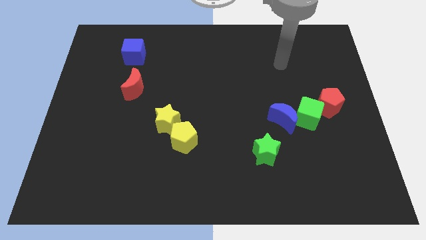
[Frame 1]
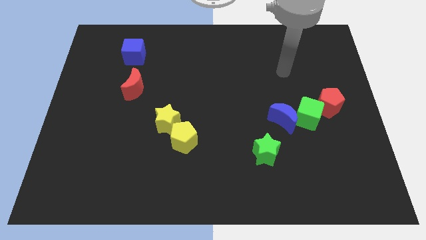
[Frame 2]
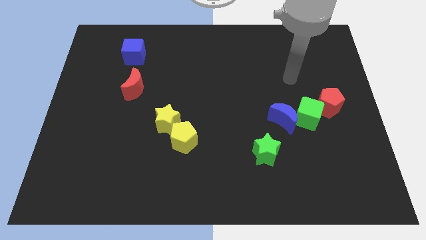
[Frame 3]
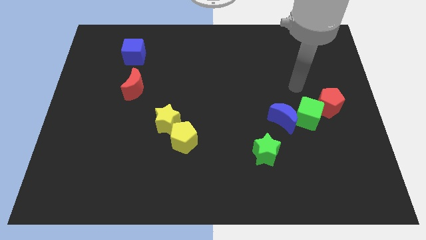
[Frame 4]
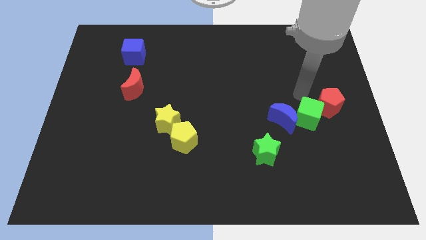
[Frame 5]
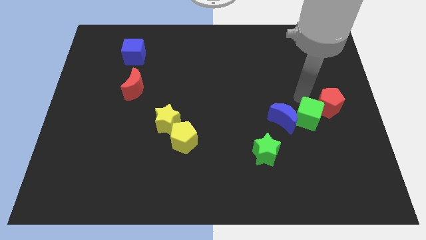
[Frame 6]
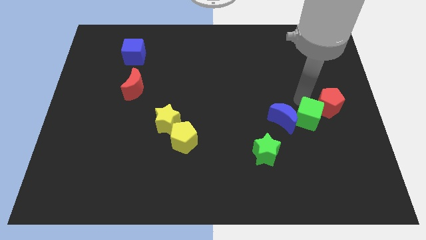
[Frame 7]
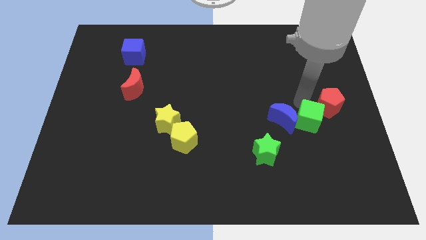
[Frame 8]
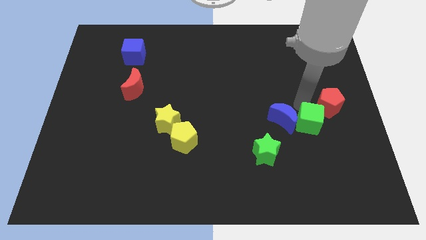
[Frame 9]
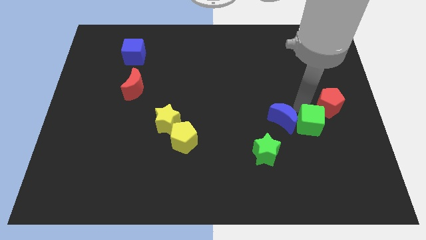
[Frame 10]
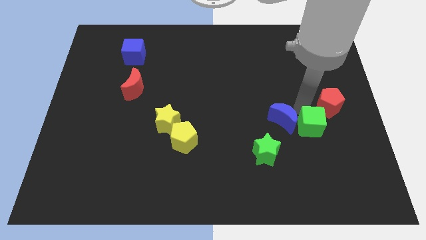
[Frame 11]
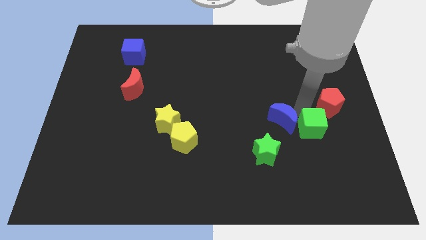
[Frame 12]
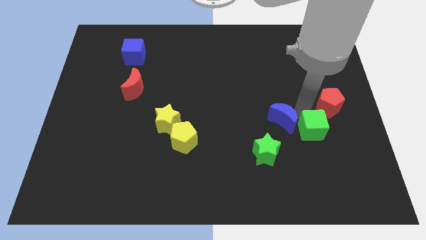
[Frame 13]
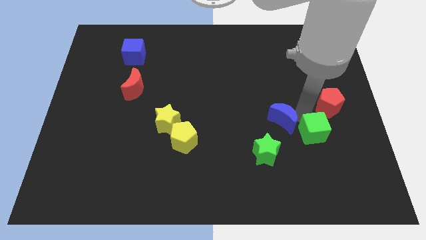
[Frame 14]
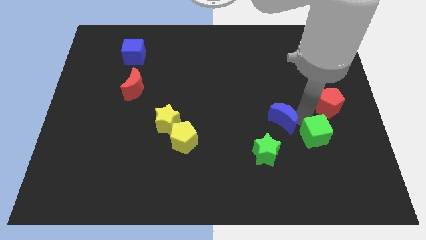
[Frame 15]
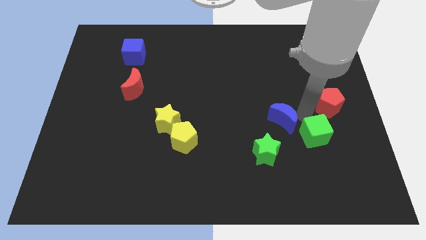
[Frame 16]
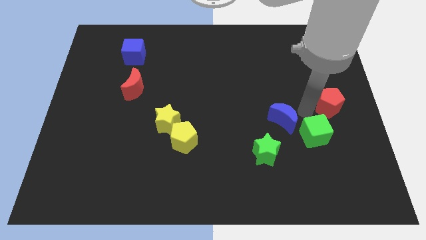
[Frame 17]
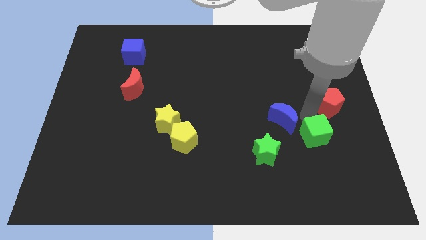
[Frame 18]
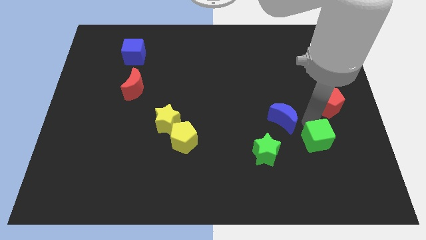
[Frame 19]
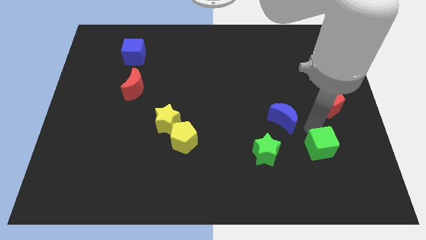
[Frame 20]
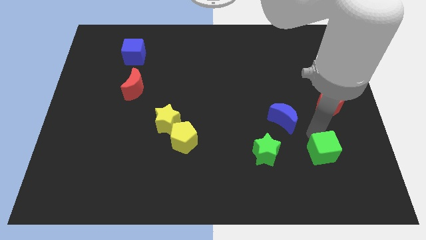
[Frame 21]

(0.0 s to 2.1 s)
separate the green cube from the blue moon and red pentagon

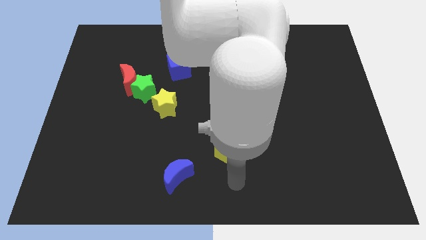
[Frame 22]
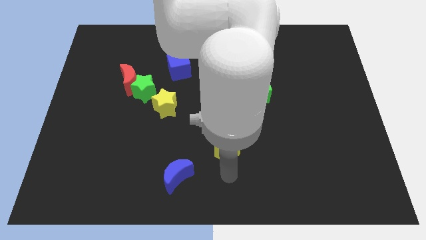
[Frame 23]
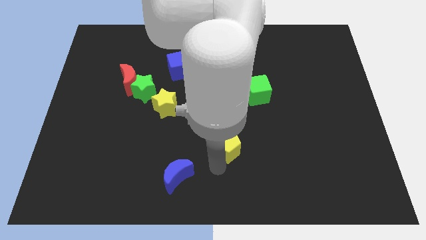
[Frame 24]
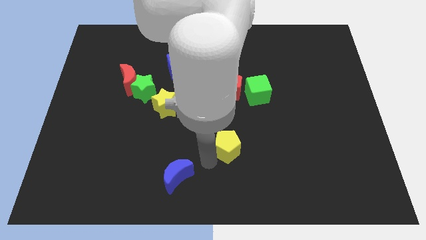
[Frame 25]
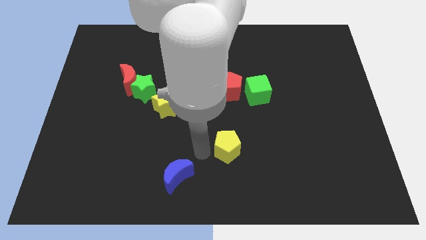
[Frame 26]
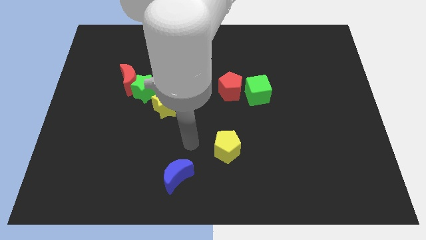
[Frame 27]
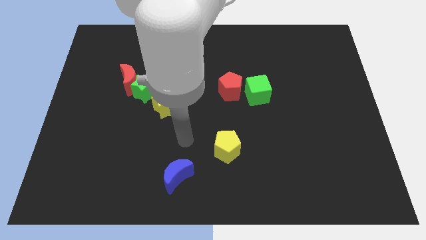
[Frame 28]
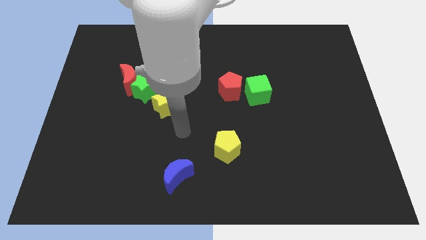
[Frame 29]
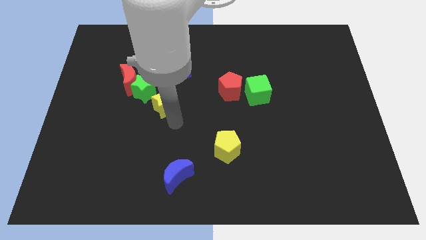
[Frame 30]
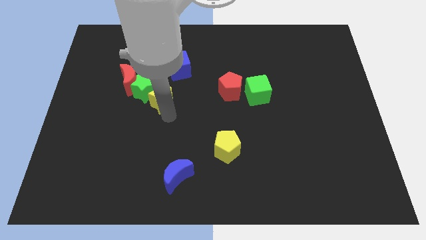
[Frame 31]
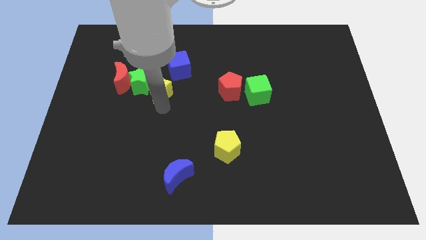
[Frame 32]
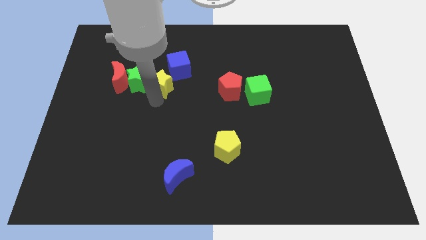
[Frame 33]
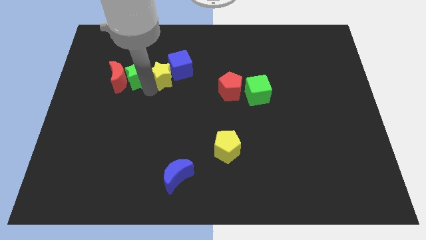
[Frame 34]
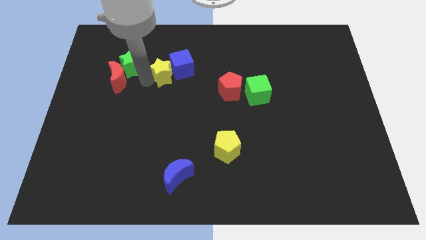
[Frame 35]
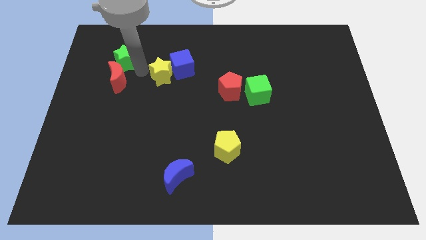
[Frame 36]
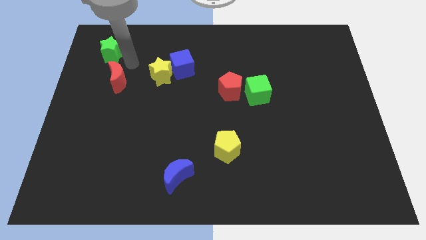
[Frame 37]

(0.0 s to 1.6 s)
separate the red moon from the green star

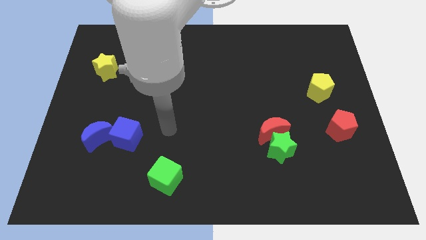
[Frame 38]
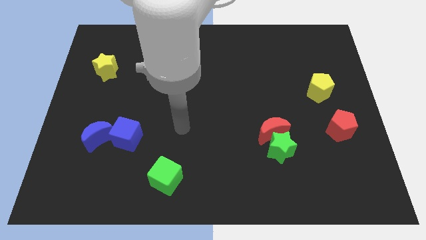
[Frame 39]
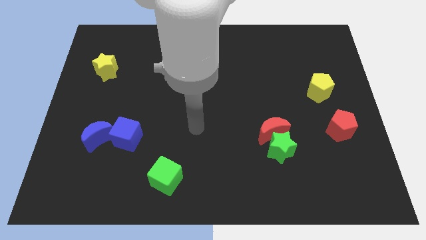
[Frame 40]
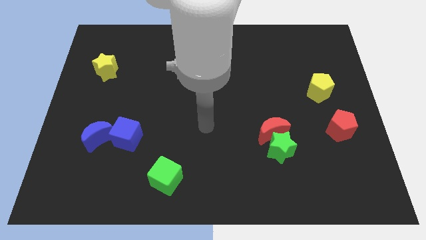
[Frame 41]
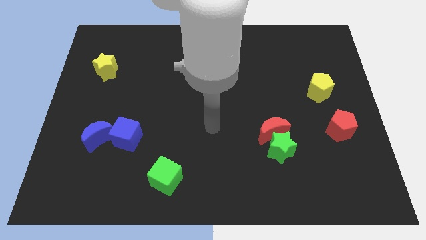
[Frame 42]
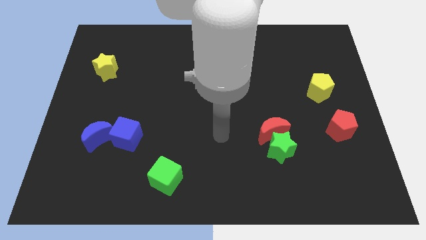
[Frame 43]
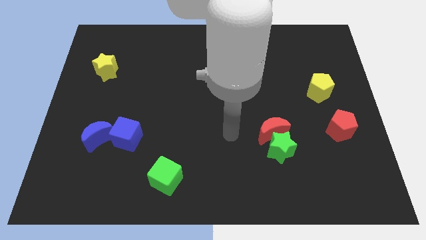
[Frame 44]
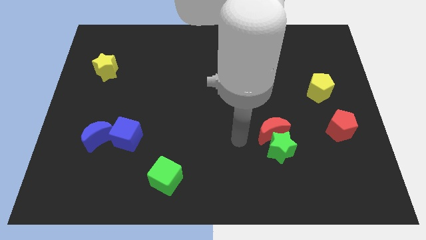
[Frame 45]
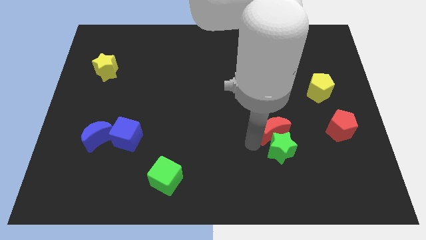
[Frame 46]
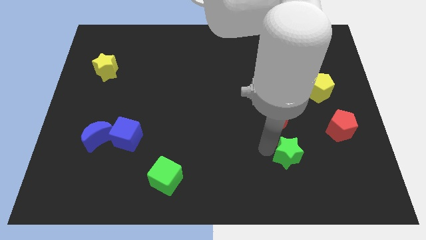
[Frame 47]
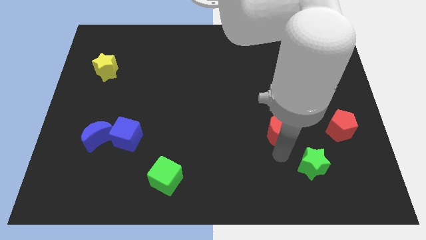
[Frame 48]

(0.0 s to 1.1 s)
pull the red moon apart from the green star

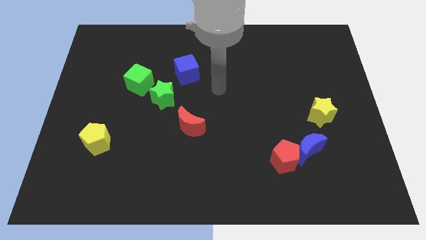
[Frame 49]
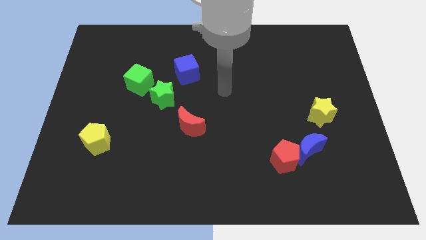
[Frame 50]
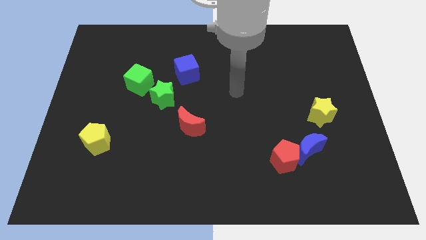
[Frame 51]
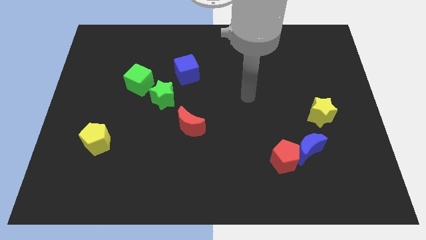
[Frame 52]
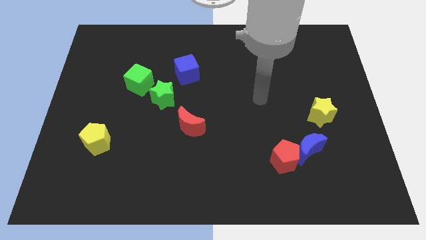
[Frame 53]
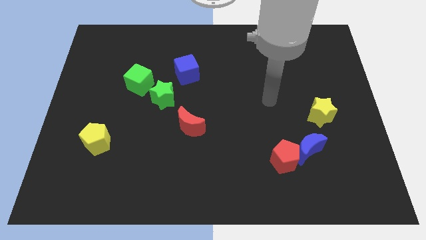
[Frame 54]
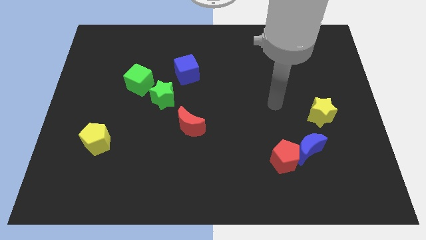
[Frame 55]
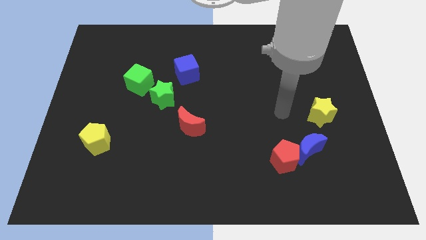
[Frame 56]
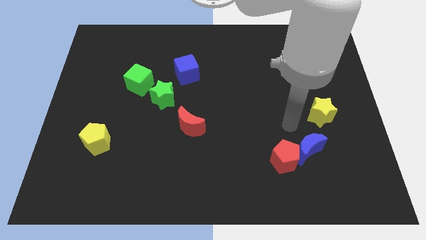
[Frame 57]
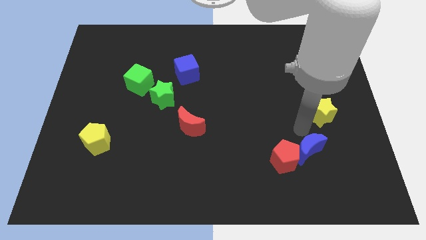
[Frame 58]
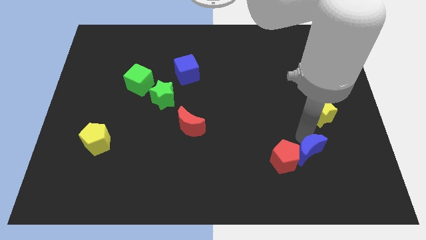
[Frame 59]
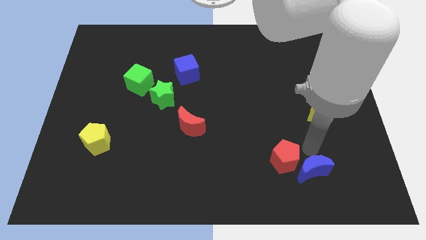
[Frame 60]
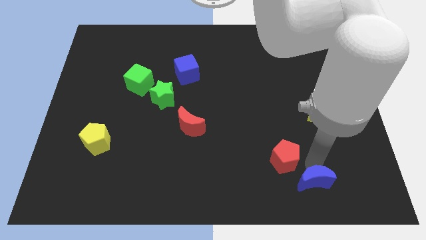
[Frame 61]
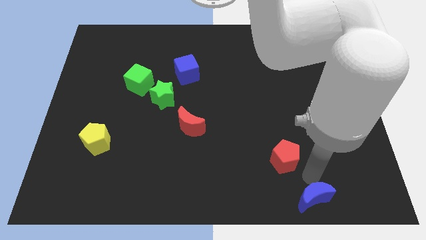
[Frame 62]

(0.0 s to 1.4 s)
move the red pentagon away from the blue moon

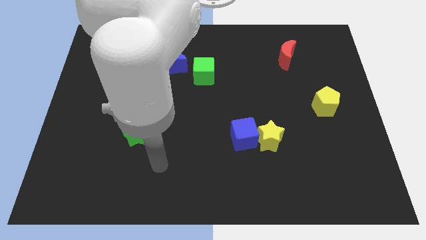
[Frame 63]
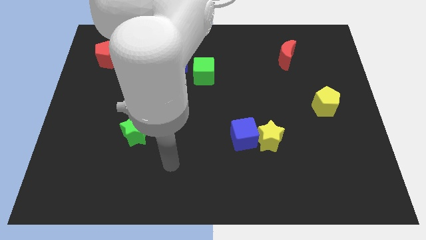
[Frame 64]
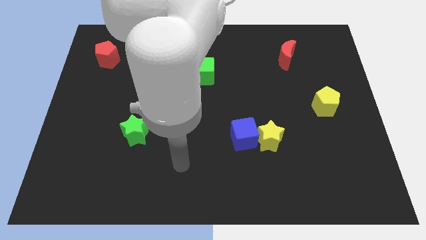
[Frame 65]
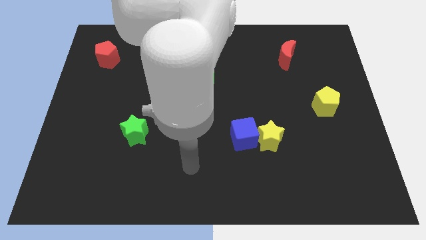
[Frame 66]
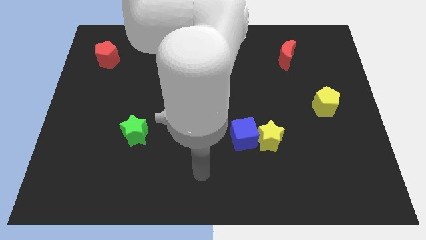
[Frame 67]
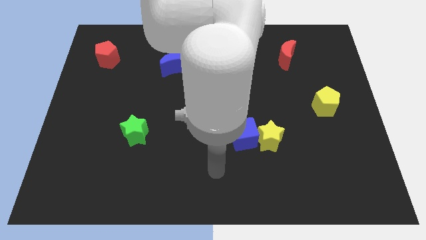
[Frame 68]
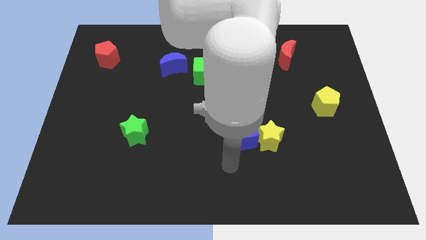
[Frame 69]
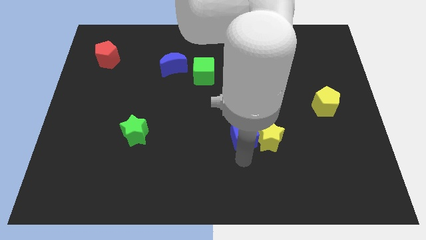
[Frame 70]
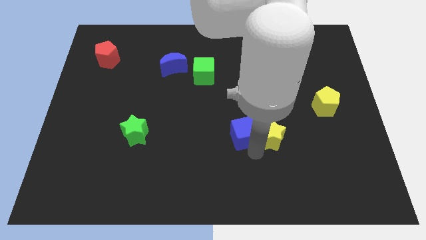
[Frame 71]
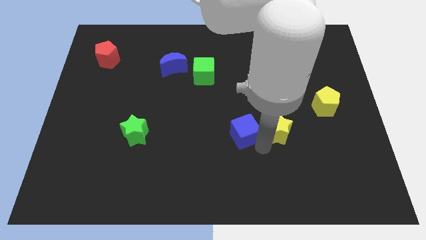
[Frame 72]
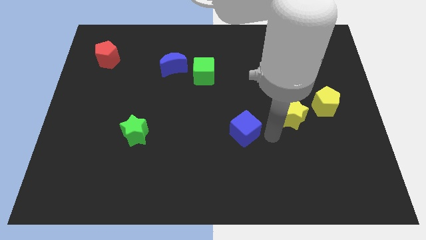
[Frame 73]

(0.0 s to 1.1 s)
separate the blue cube from the yellow star

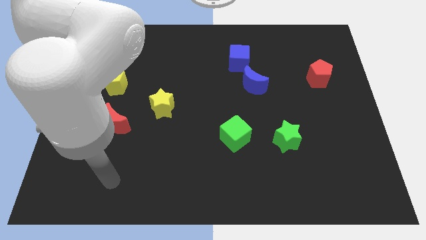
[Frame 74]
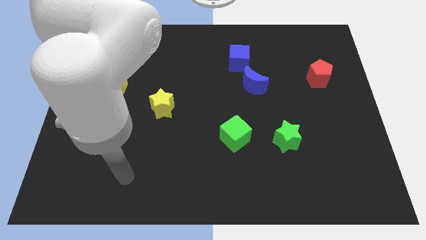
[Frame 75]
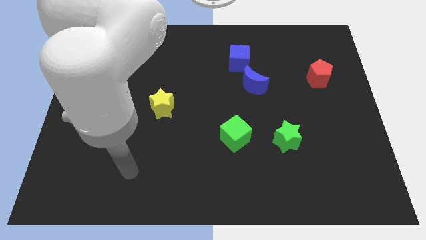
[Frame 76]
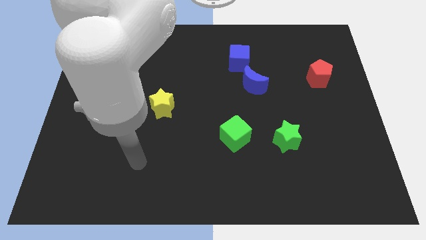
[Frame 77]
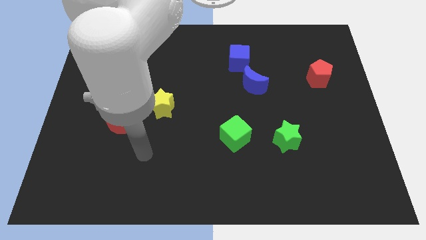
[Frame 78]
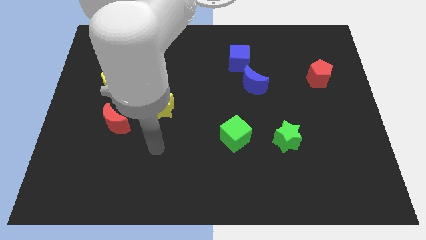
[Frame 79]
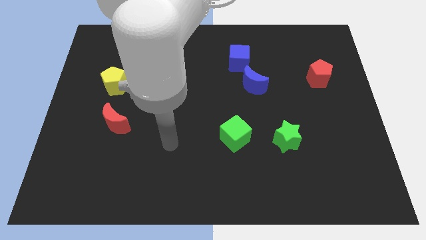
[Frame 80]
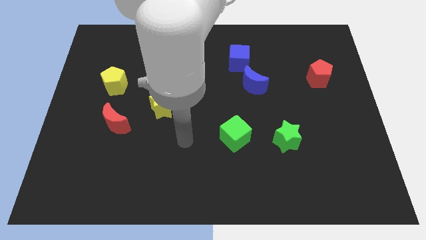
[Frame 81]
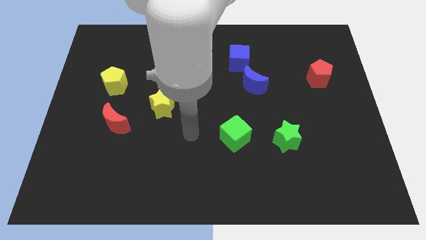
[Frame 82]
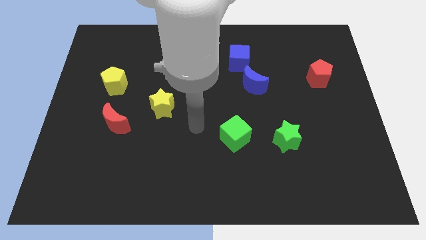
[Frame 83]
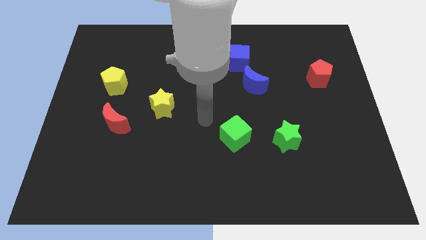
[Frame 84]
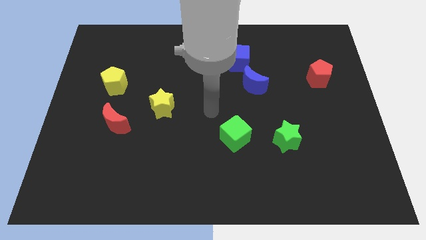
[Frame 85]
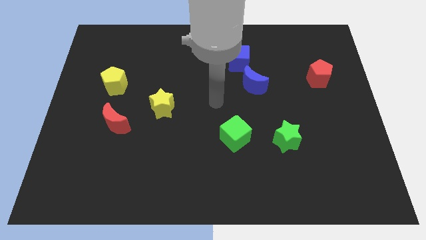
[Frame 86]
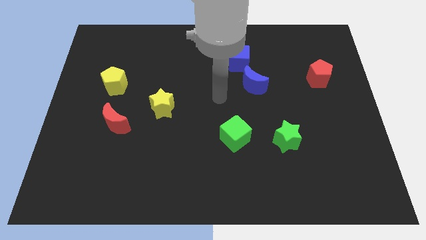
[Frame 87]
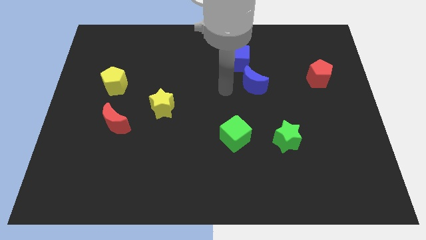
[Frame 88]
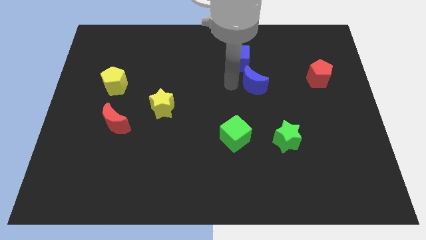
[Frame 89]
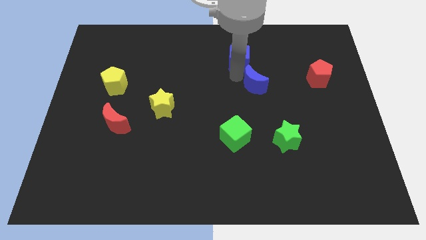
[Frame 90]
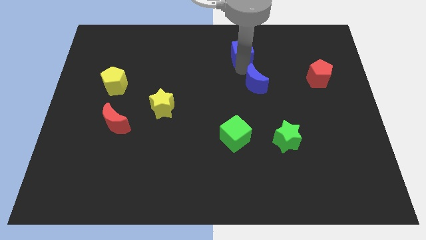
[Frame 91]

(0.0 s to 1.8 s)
move the blue moon away from the blue cube
